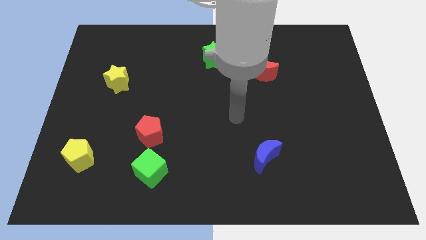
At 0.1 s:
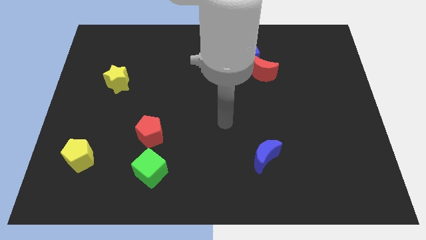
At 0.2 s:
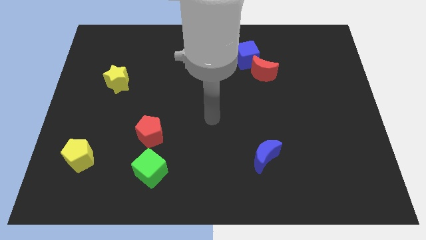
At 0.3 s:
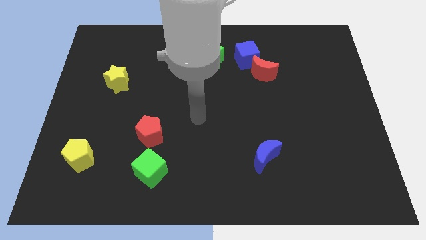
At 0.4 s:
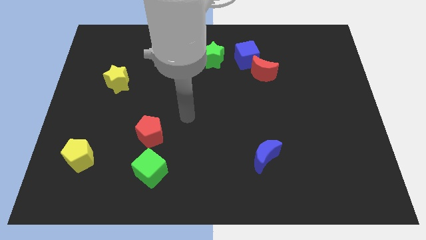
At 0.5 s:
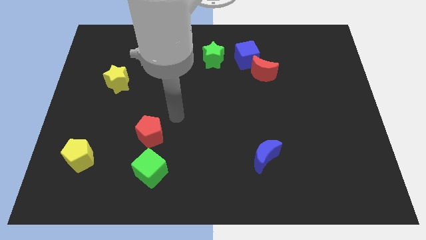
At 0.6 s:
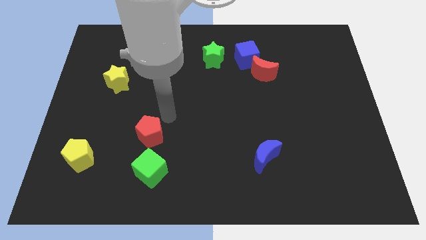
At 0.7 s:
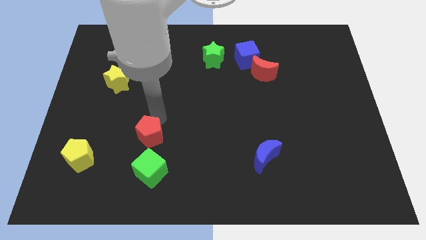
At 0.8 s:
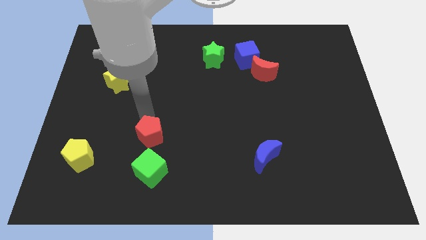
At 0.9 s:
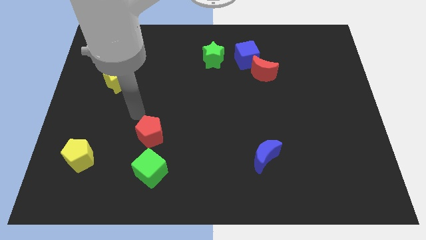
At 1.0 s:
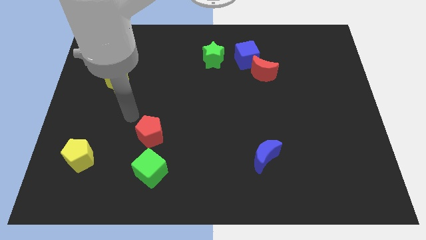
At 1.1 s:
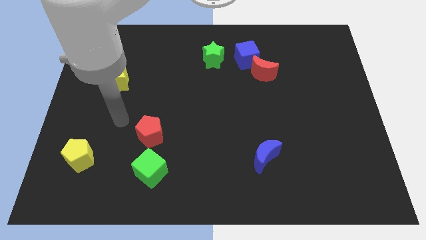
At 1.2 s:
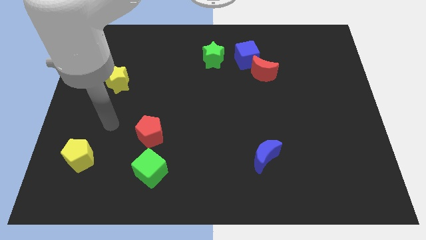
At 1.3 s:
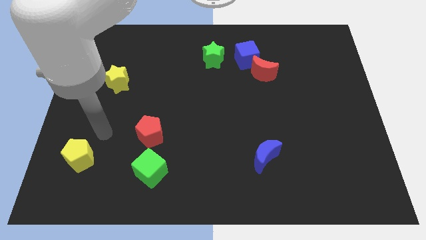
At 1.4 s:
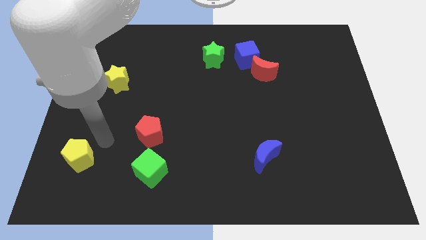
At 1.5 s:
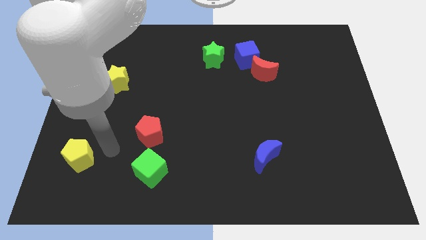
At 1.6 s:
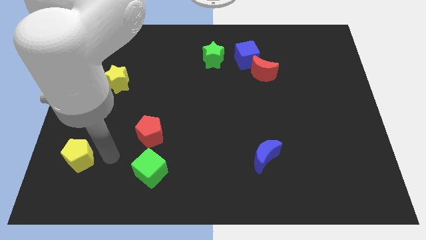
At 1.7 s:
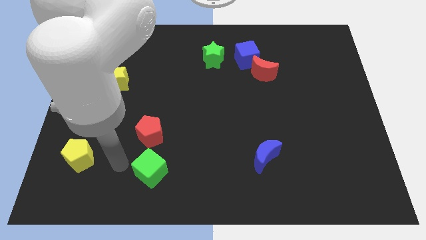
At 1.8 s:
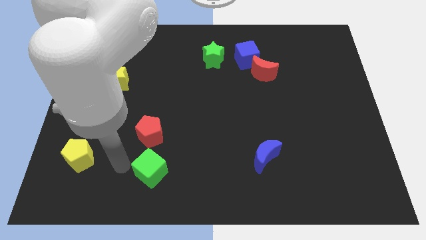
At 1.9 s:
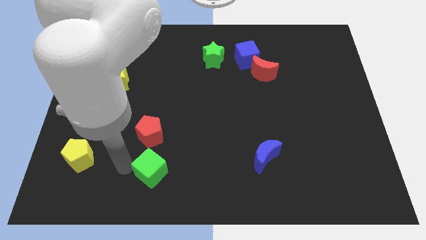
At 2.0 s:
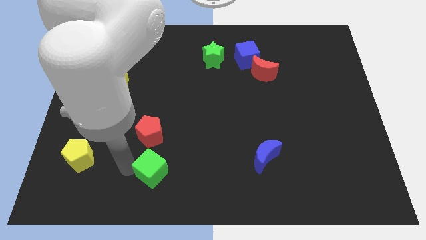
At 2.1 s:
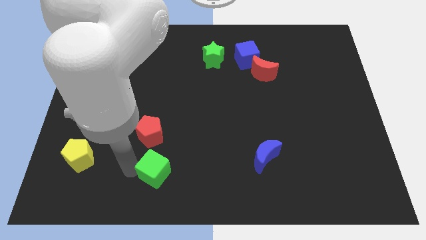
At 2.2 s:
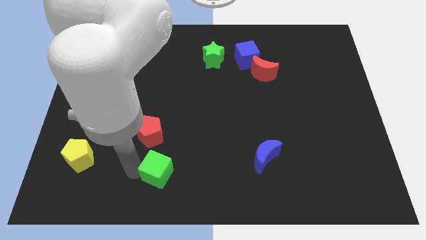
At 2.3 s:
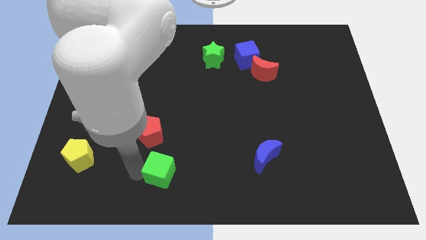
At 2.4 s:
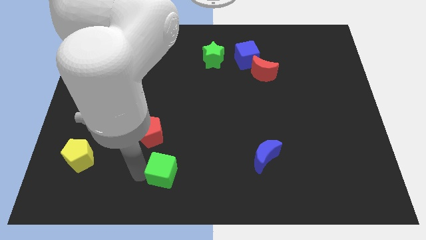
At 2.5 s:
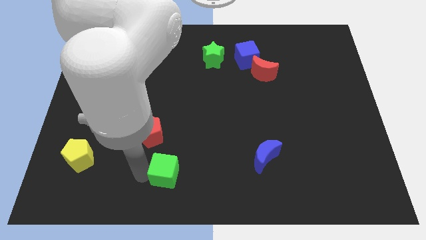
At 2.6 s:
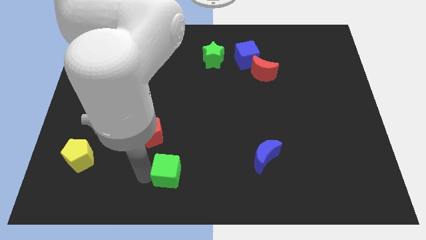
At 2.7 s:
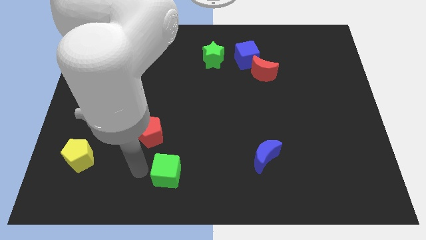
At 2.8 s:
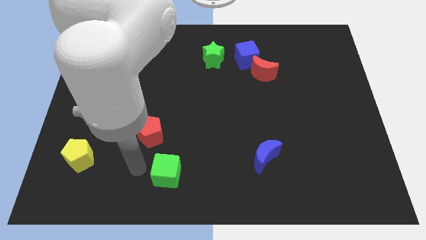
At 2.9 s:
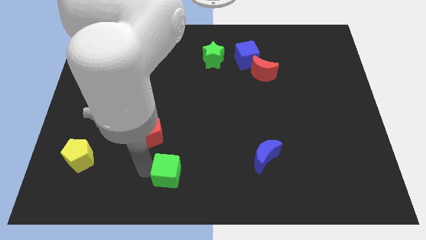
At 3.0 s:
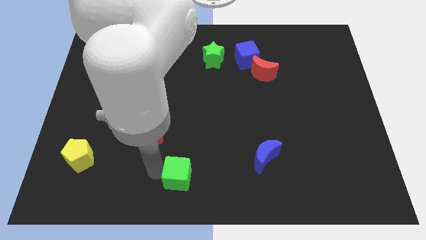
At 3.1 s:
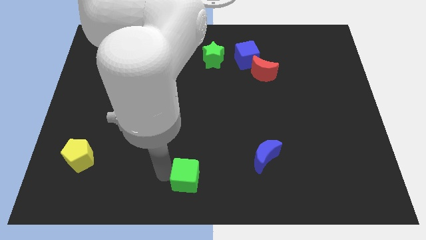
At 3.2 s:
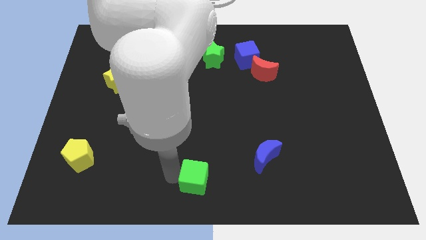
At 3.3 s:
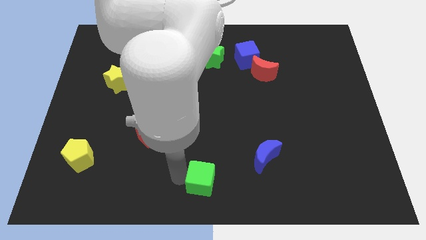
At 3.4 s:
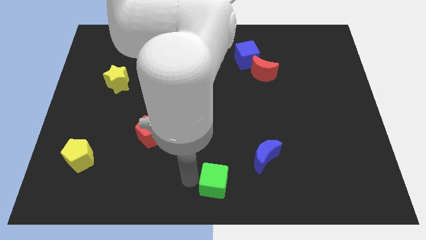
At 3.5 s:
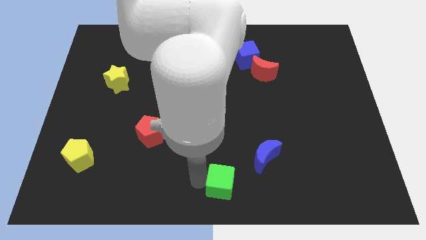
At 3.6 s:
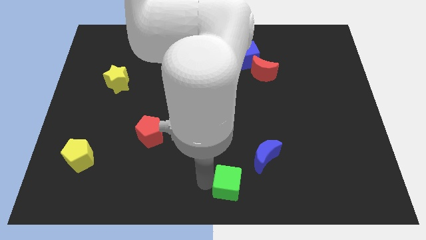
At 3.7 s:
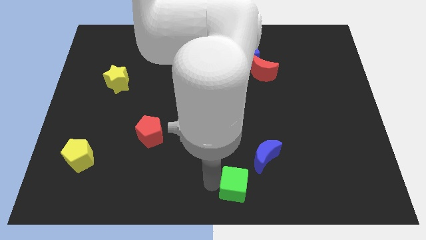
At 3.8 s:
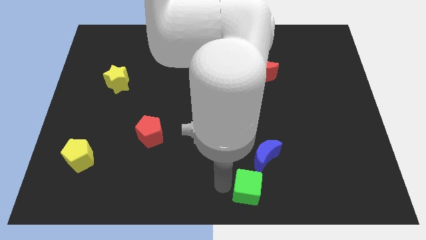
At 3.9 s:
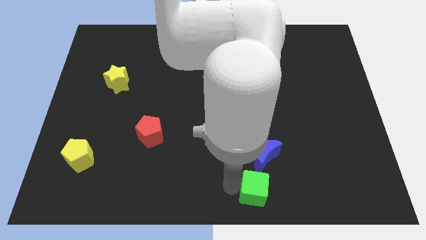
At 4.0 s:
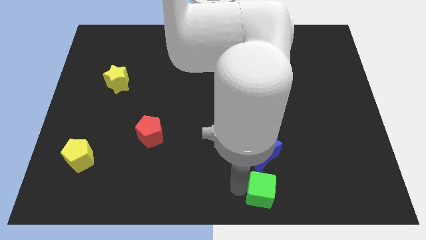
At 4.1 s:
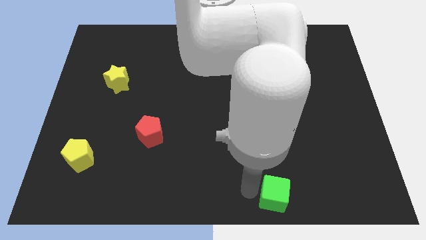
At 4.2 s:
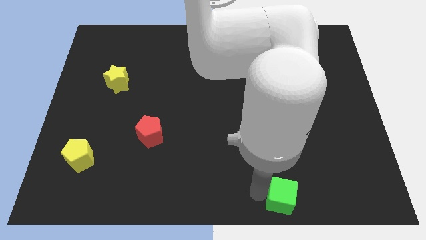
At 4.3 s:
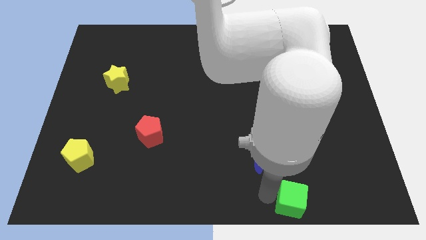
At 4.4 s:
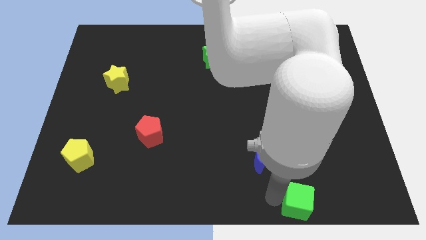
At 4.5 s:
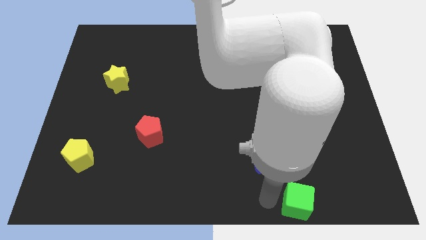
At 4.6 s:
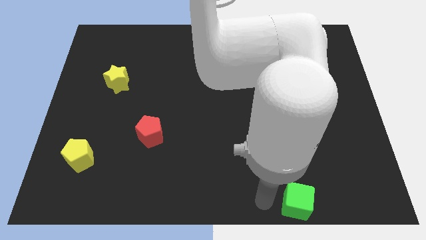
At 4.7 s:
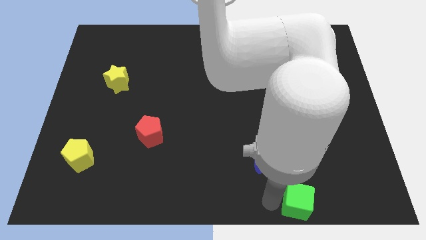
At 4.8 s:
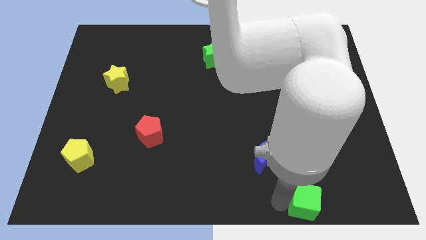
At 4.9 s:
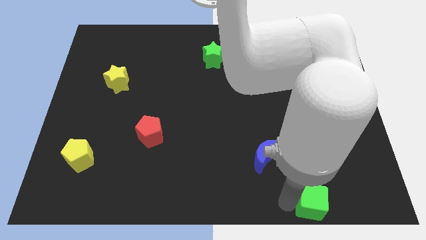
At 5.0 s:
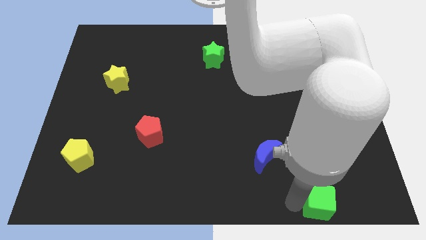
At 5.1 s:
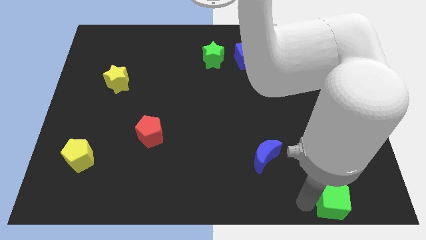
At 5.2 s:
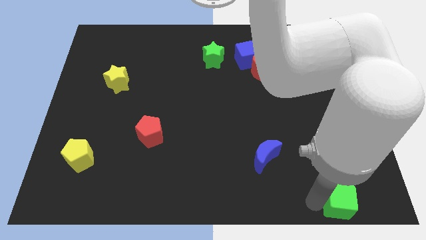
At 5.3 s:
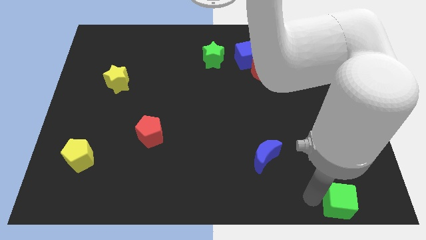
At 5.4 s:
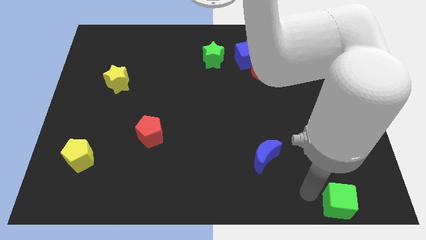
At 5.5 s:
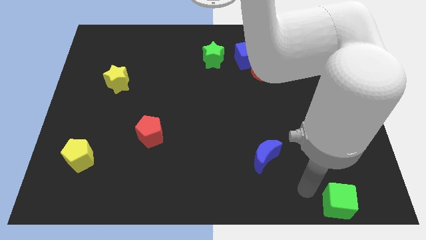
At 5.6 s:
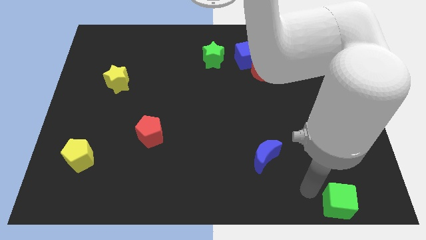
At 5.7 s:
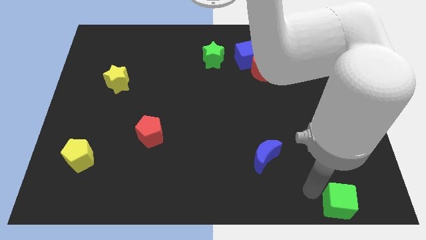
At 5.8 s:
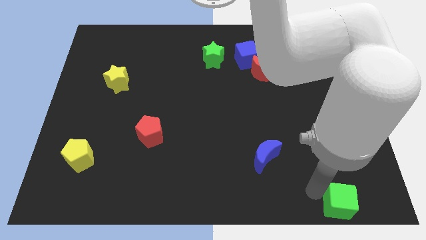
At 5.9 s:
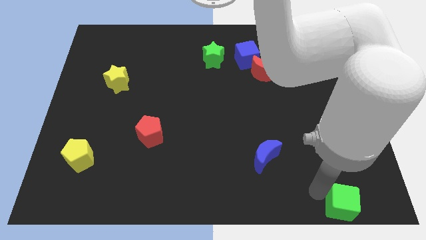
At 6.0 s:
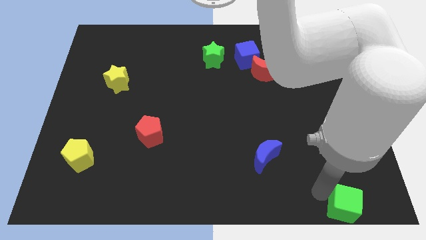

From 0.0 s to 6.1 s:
put the green cube to the bottom right corner
